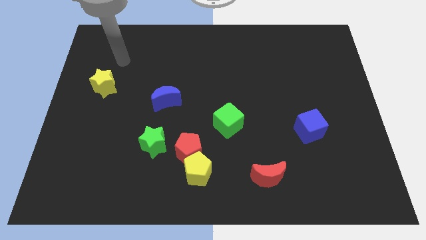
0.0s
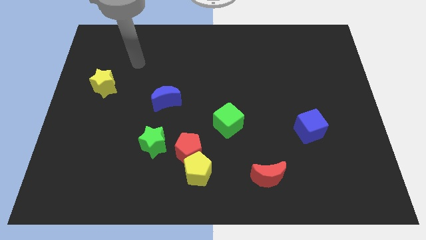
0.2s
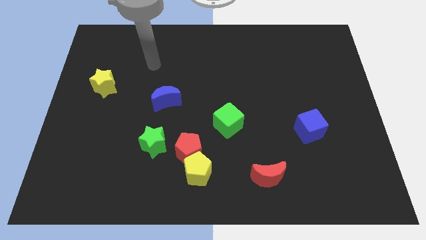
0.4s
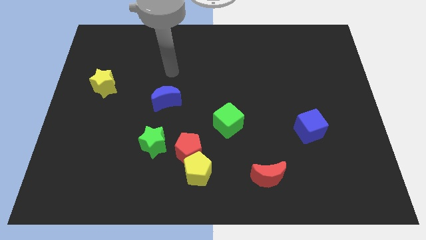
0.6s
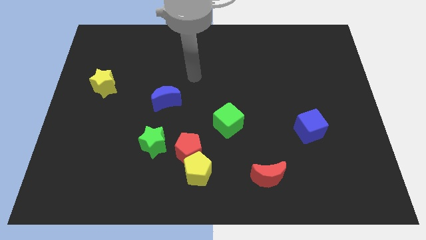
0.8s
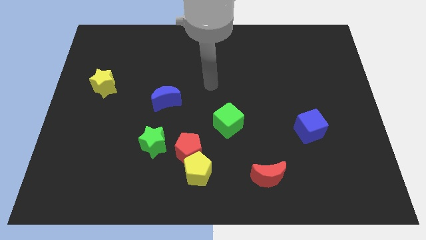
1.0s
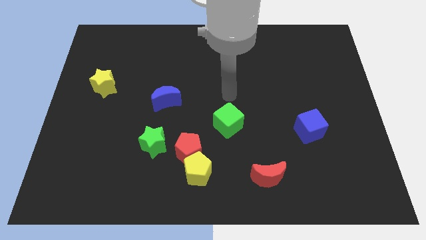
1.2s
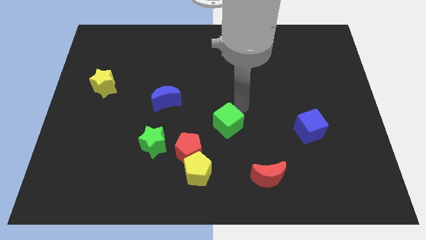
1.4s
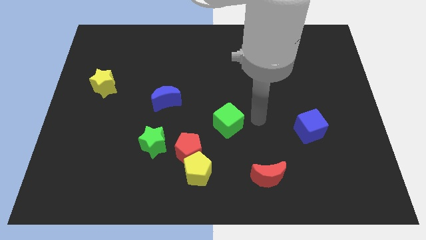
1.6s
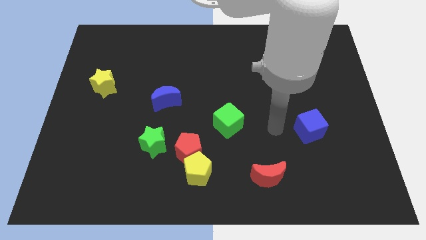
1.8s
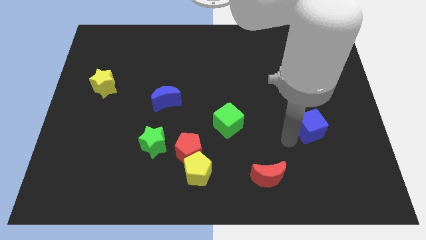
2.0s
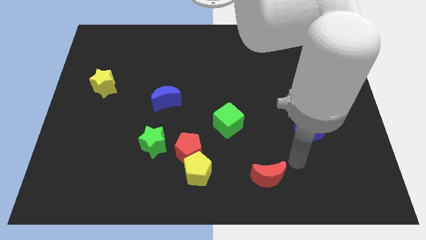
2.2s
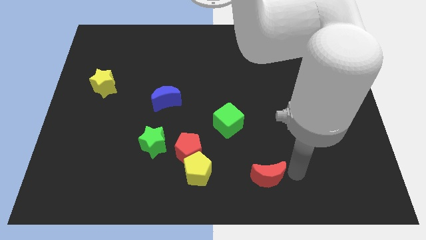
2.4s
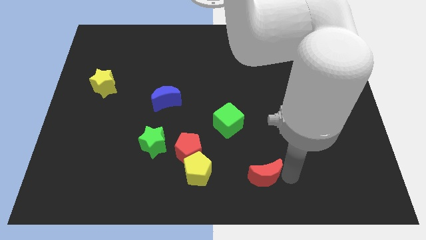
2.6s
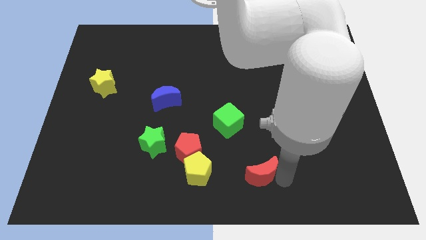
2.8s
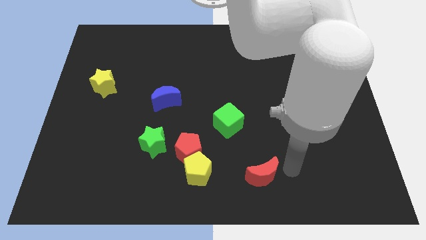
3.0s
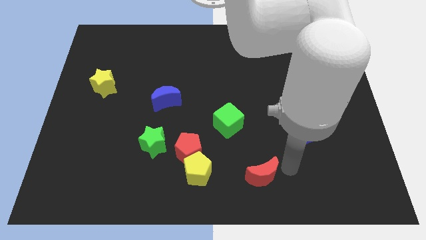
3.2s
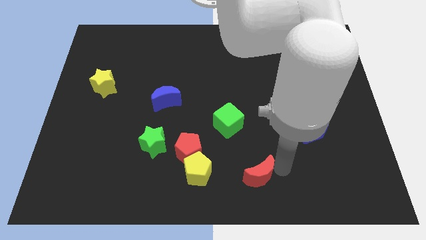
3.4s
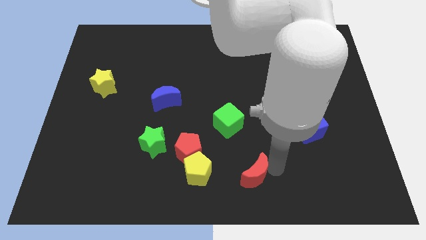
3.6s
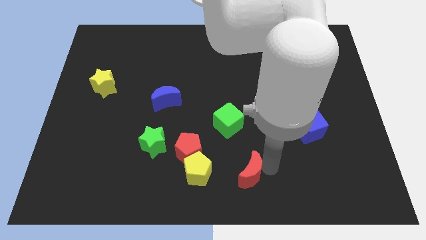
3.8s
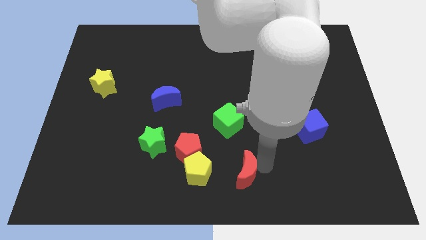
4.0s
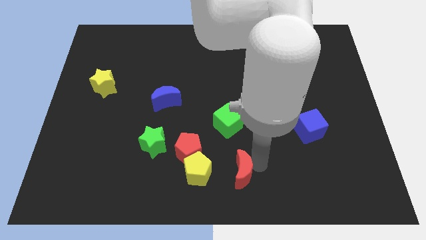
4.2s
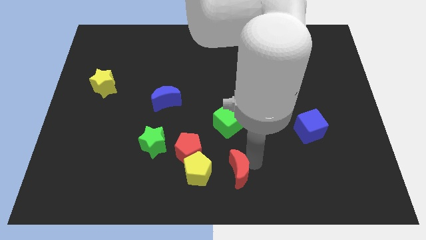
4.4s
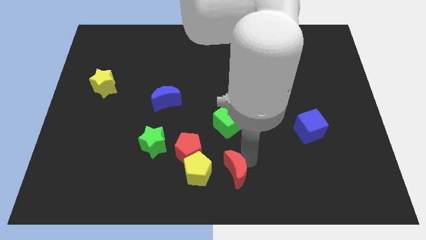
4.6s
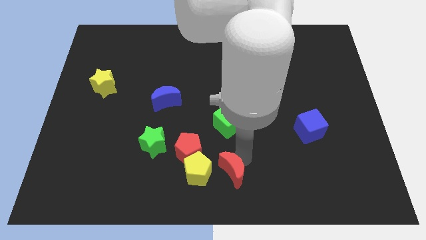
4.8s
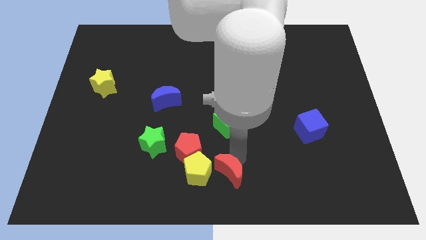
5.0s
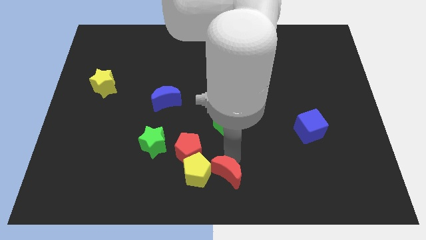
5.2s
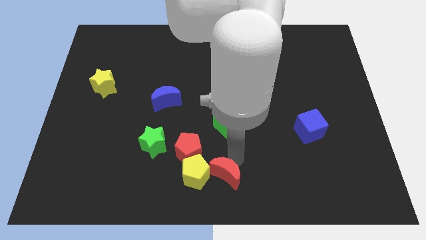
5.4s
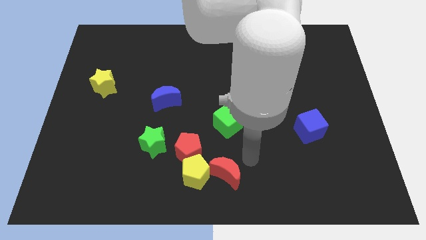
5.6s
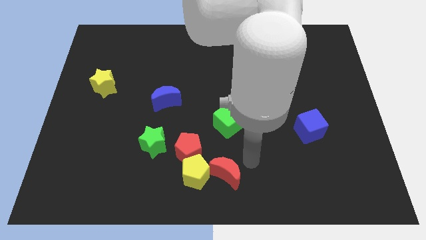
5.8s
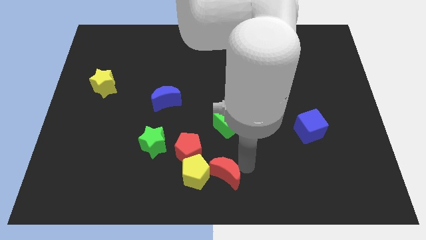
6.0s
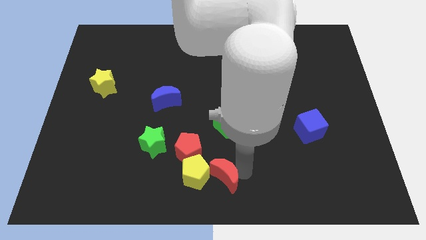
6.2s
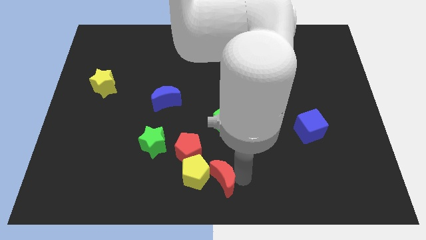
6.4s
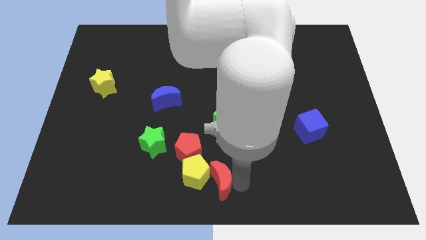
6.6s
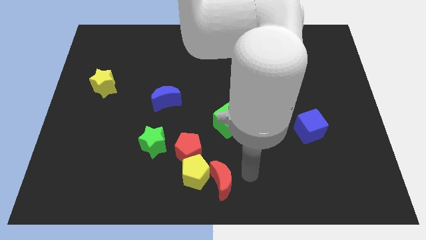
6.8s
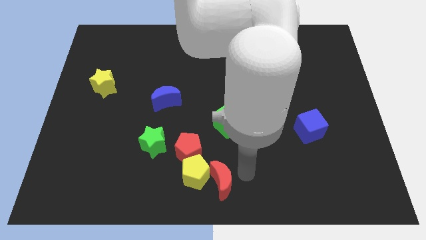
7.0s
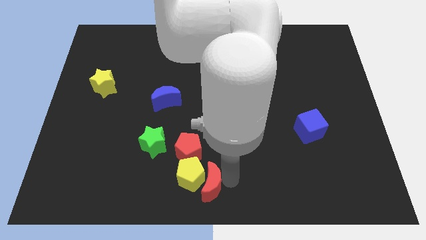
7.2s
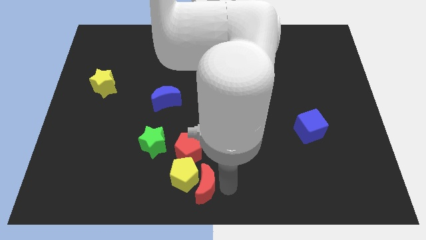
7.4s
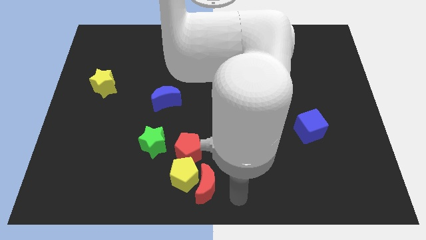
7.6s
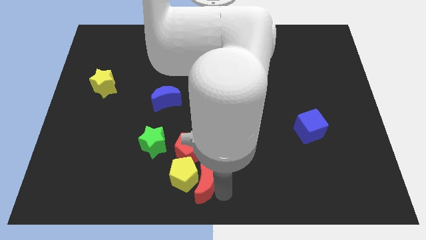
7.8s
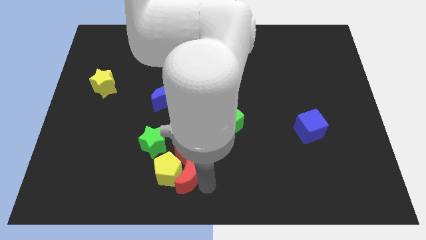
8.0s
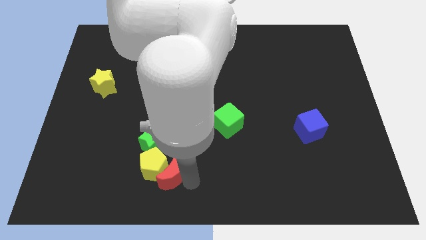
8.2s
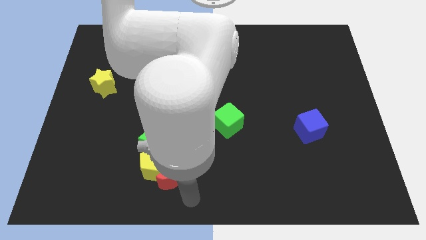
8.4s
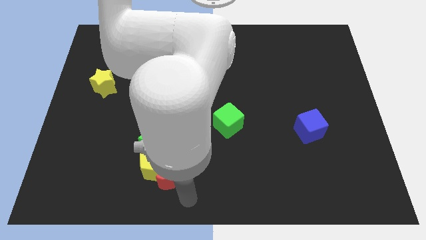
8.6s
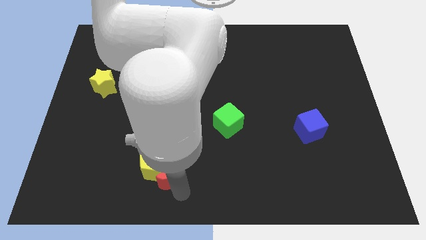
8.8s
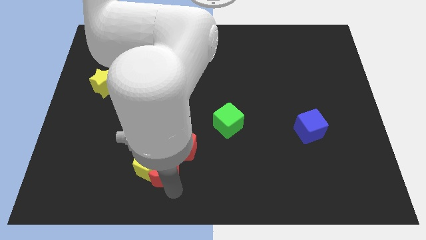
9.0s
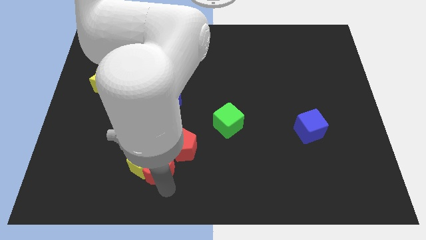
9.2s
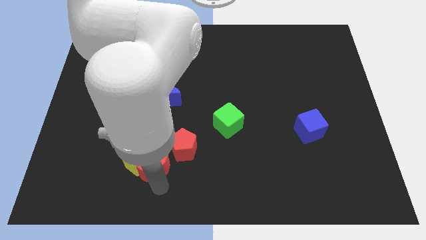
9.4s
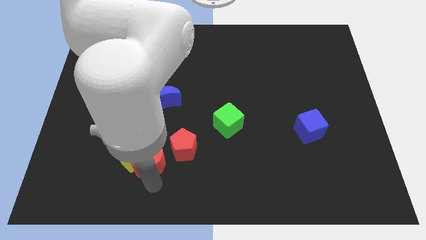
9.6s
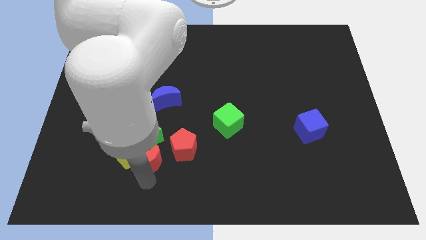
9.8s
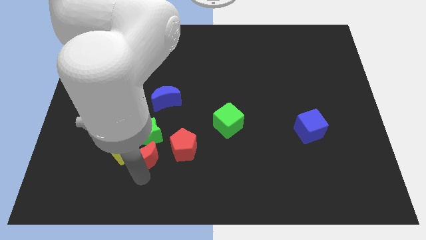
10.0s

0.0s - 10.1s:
slide the red moon towards the green star

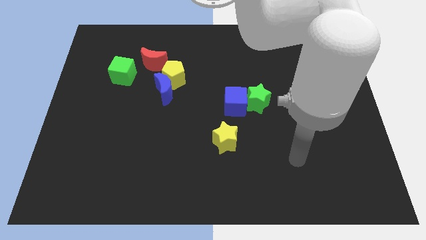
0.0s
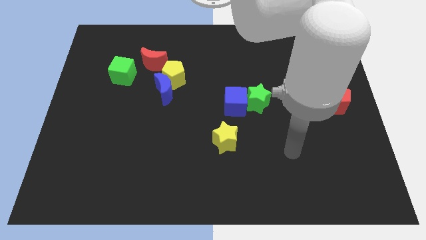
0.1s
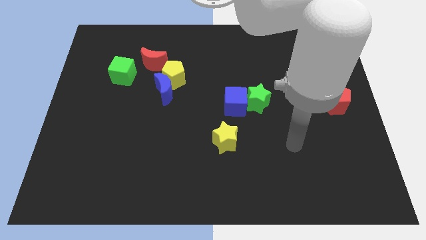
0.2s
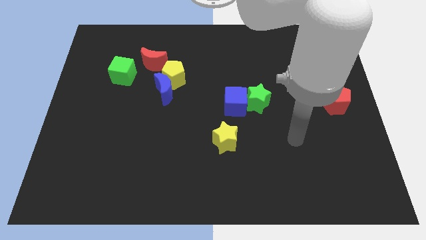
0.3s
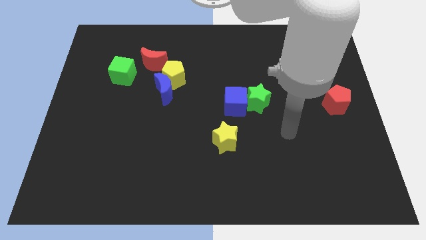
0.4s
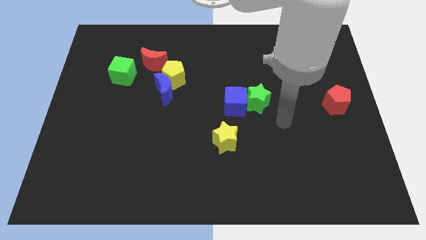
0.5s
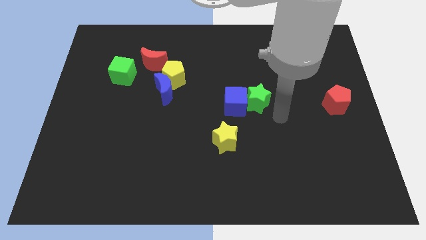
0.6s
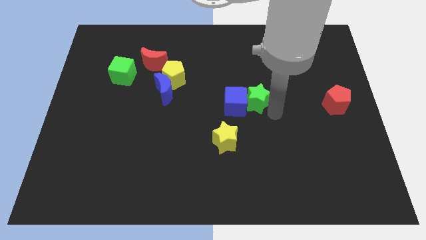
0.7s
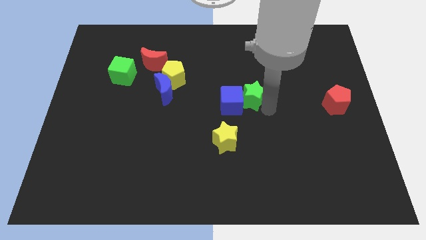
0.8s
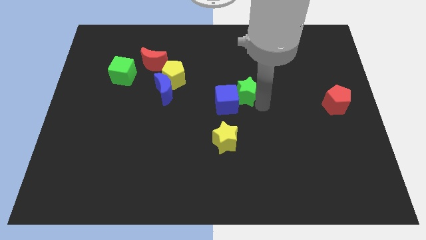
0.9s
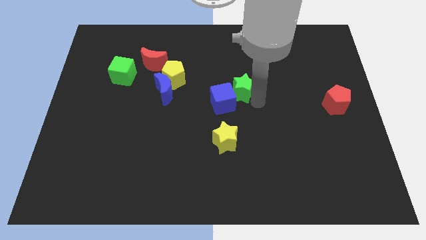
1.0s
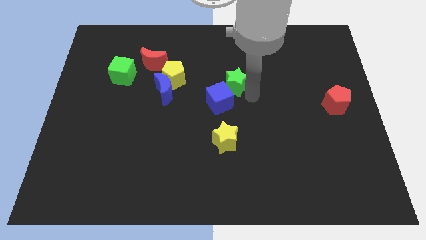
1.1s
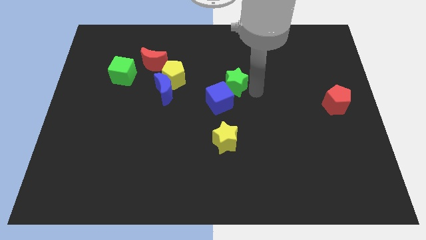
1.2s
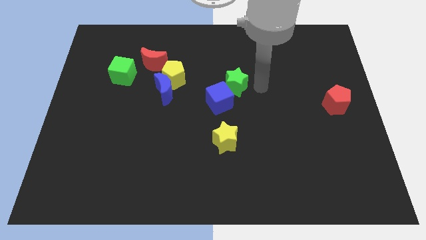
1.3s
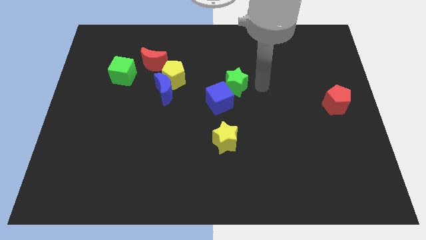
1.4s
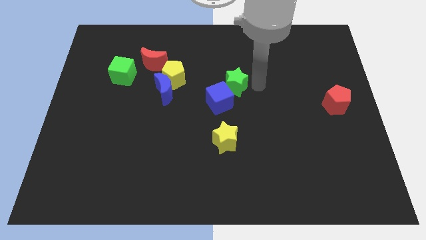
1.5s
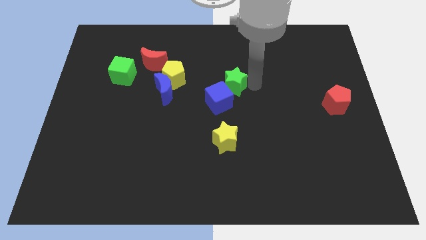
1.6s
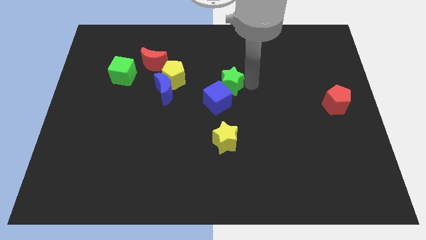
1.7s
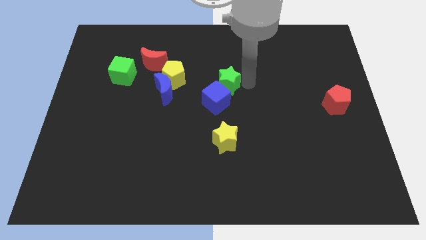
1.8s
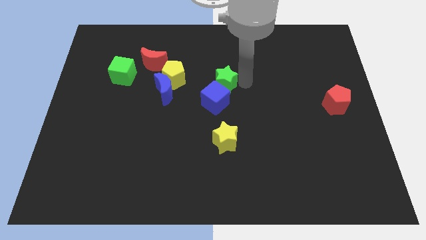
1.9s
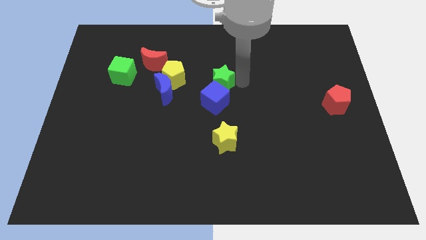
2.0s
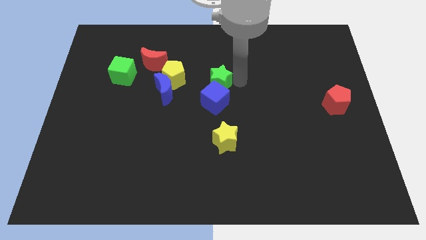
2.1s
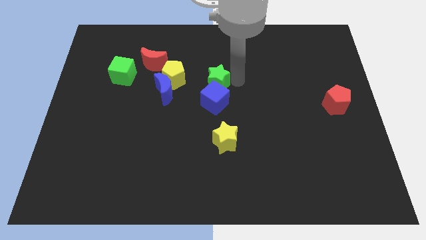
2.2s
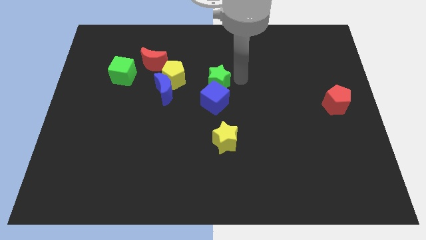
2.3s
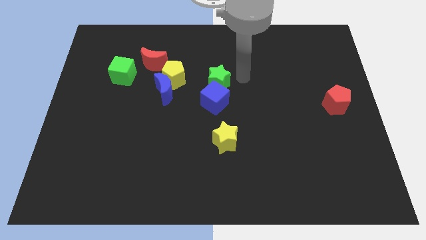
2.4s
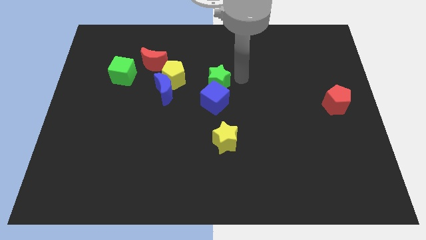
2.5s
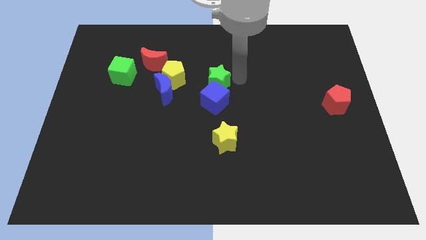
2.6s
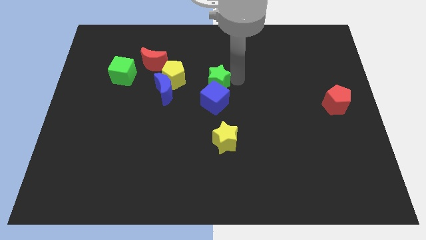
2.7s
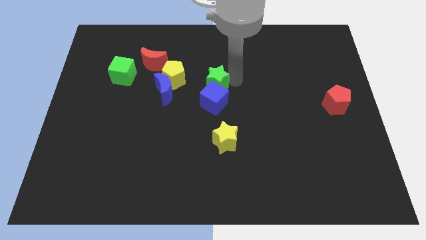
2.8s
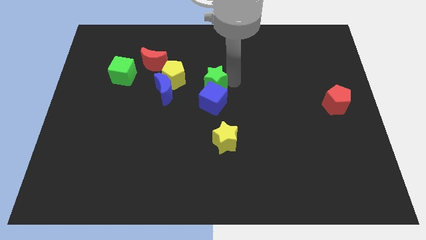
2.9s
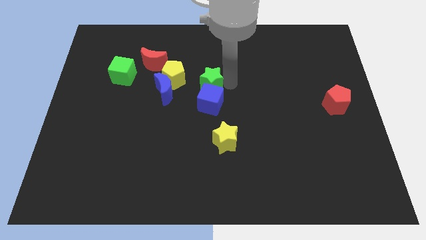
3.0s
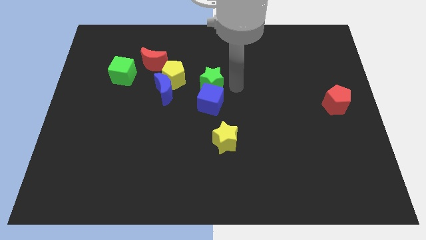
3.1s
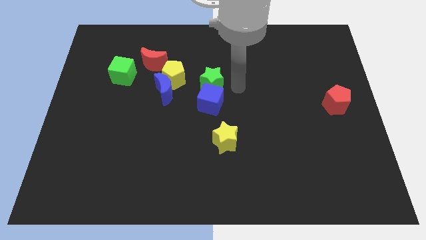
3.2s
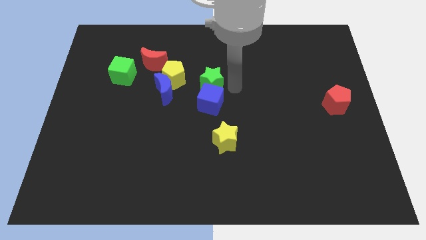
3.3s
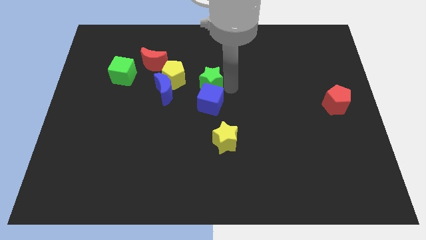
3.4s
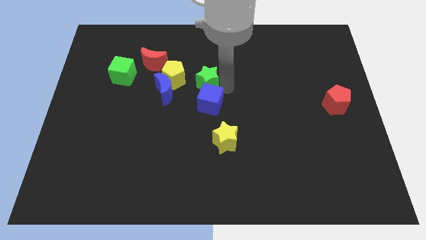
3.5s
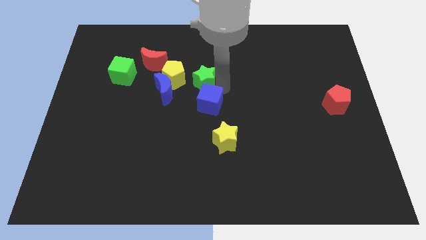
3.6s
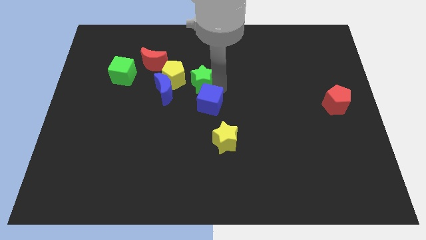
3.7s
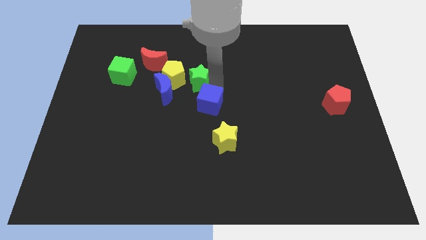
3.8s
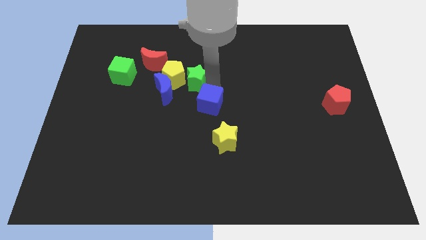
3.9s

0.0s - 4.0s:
put the green star close to the yellow pentagon
